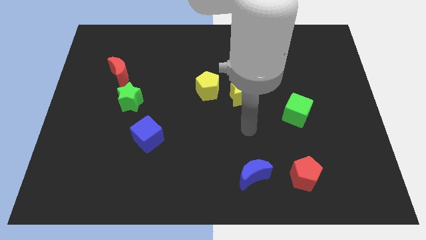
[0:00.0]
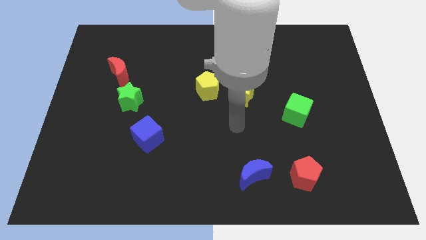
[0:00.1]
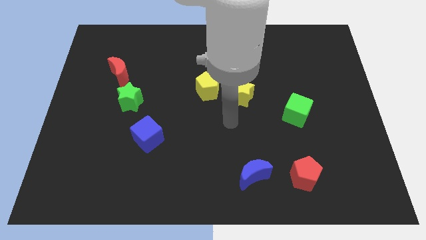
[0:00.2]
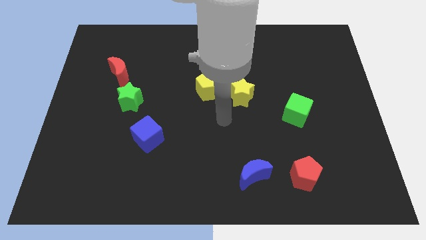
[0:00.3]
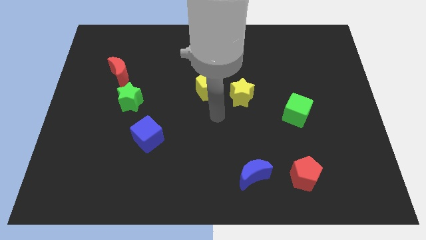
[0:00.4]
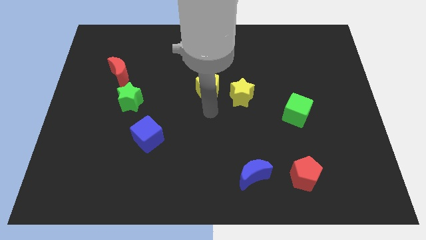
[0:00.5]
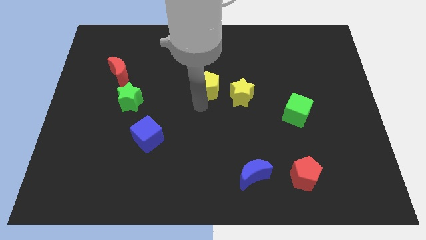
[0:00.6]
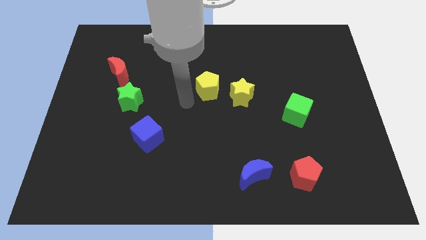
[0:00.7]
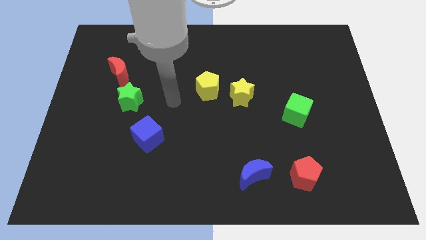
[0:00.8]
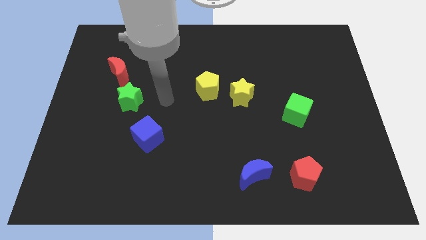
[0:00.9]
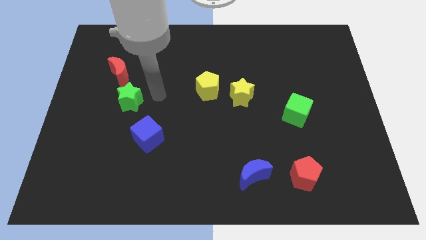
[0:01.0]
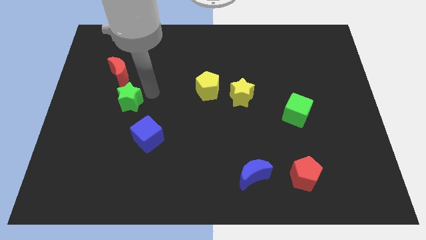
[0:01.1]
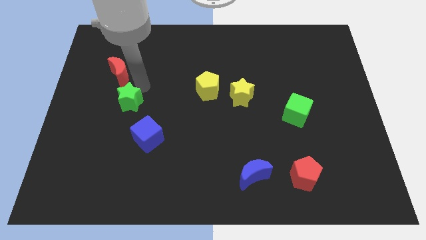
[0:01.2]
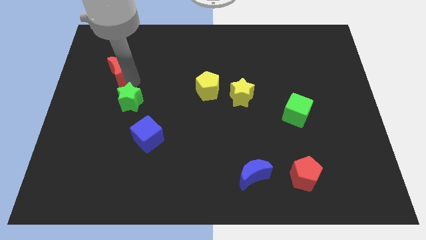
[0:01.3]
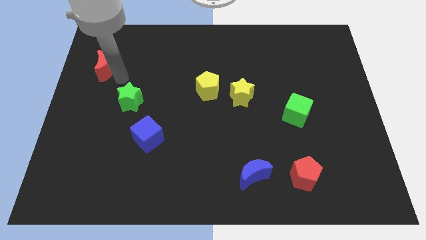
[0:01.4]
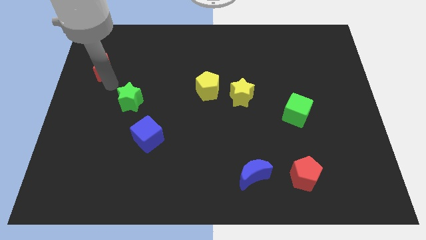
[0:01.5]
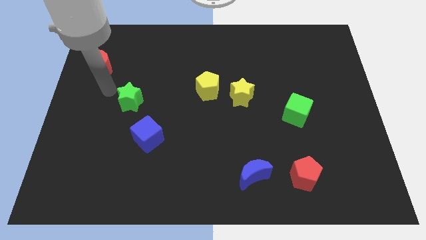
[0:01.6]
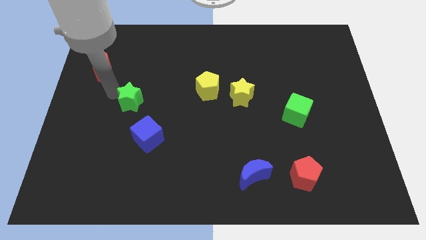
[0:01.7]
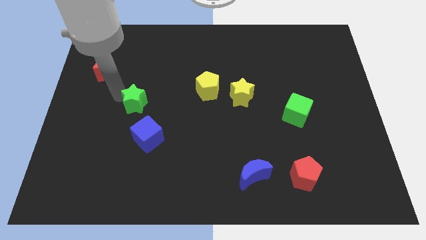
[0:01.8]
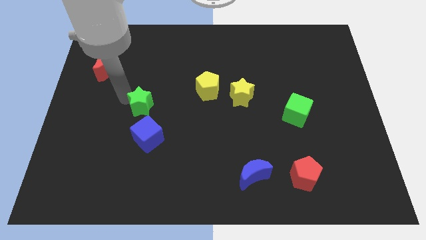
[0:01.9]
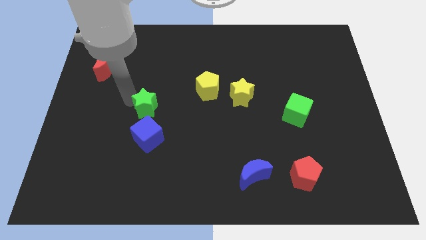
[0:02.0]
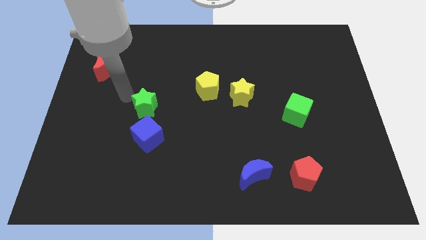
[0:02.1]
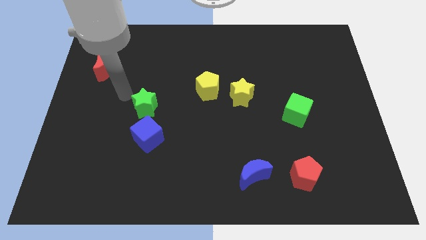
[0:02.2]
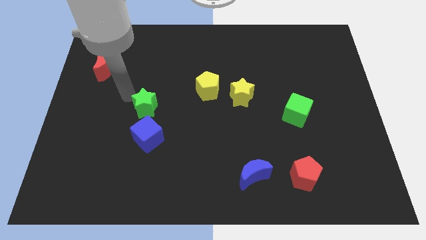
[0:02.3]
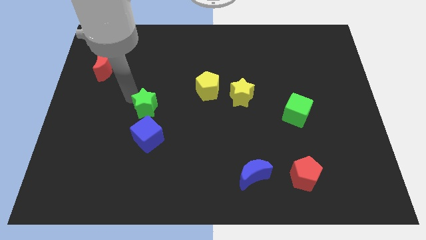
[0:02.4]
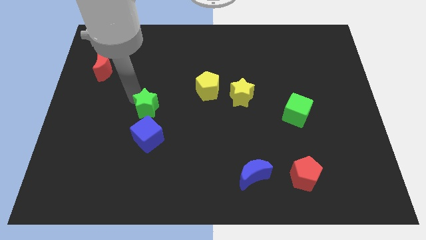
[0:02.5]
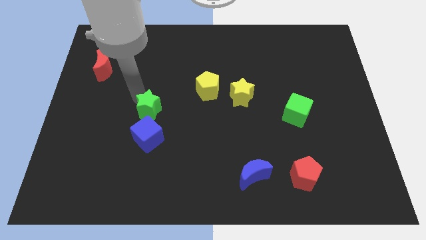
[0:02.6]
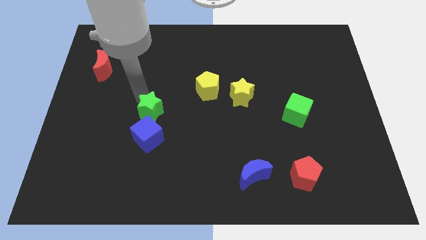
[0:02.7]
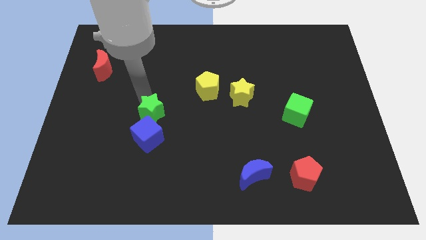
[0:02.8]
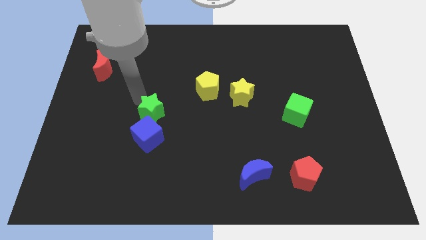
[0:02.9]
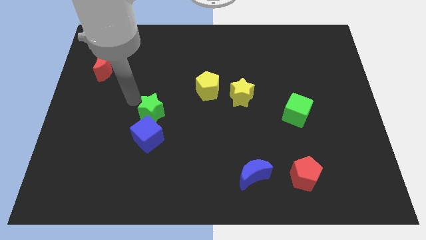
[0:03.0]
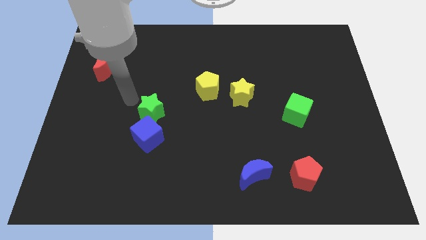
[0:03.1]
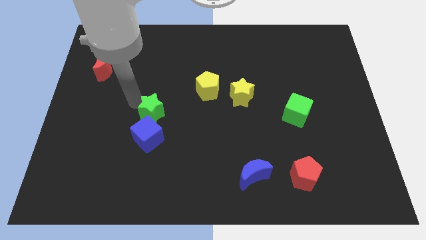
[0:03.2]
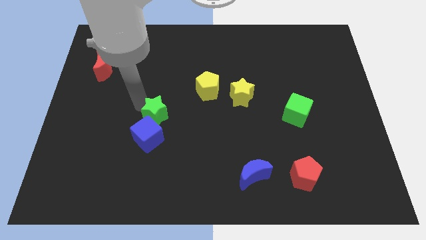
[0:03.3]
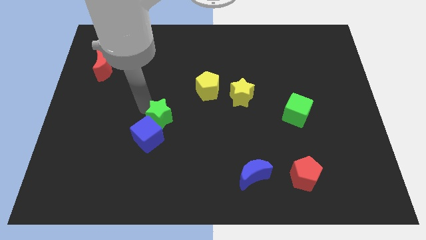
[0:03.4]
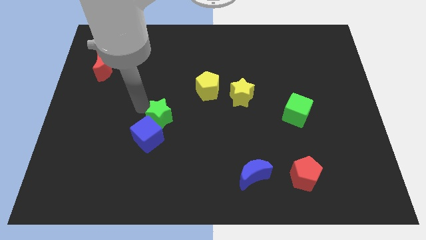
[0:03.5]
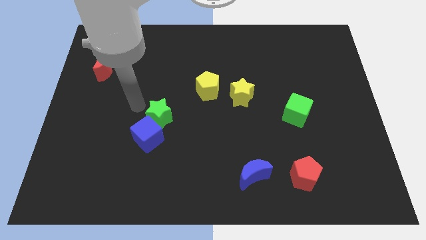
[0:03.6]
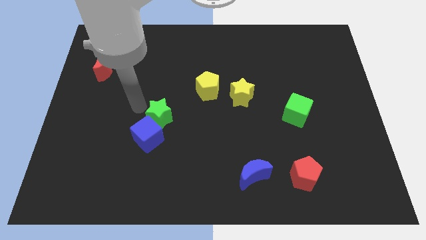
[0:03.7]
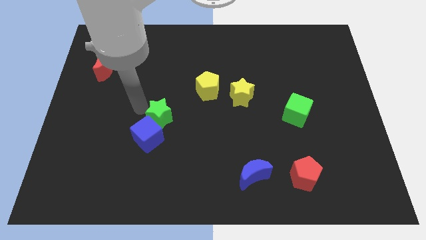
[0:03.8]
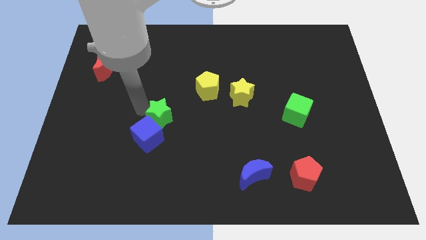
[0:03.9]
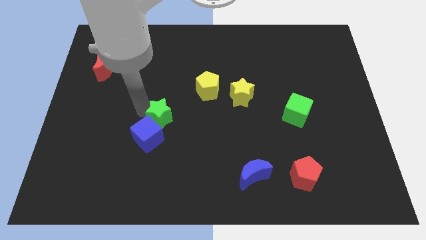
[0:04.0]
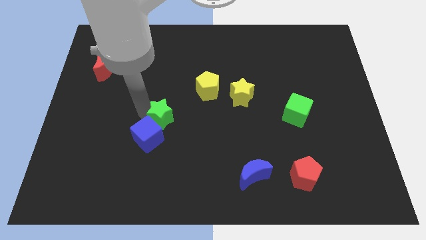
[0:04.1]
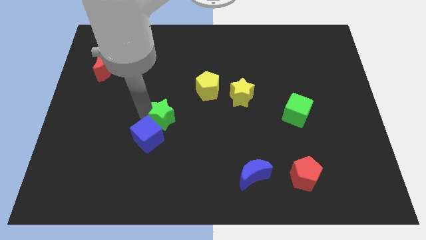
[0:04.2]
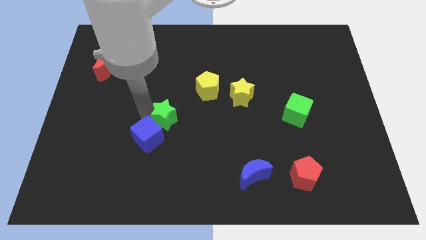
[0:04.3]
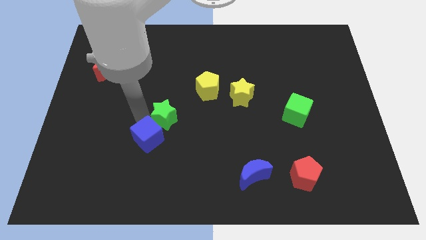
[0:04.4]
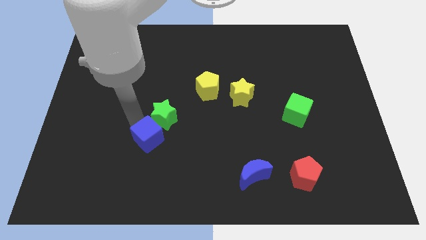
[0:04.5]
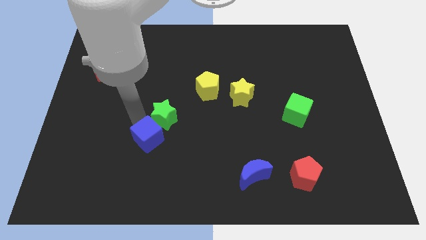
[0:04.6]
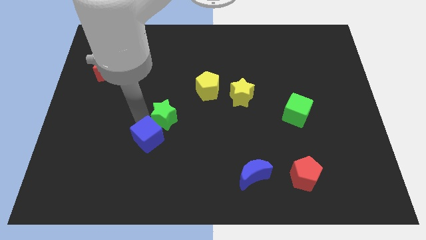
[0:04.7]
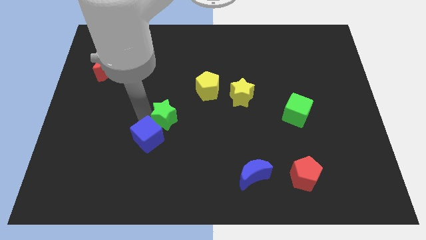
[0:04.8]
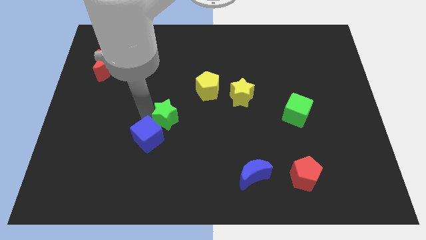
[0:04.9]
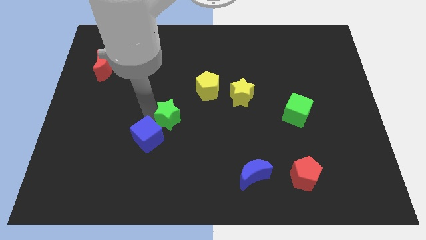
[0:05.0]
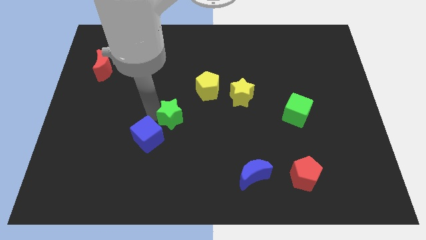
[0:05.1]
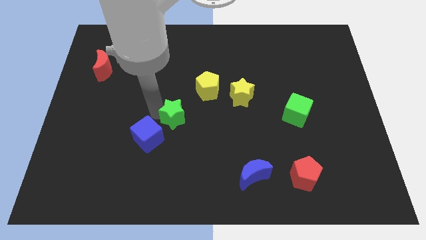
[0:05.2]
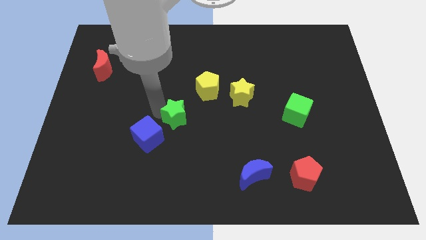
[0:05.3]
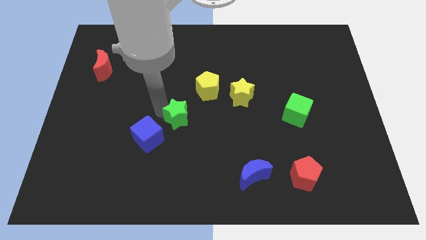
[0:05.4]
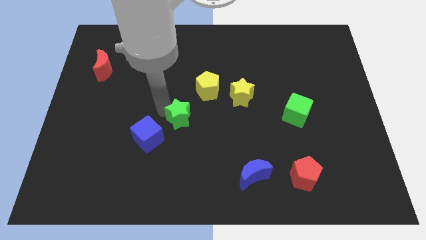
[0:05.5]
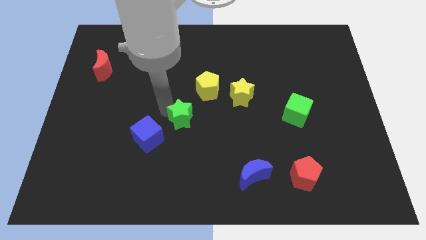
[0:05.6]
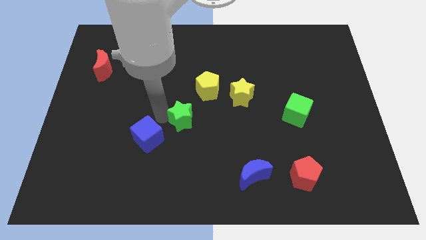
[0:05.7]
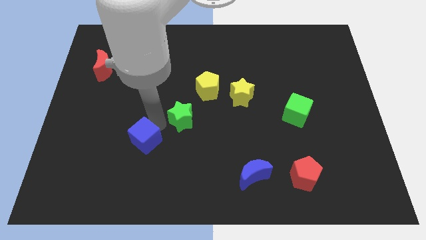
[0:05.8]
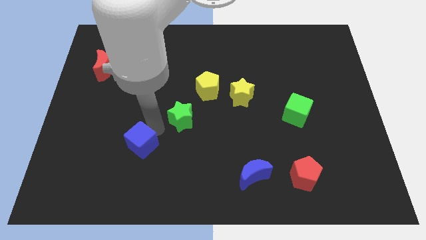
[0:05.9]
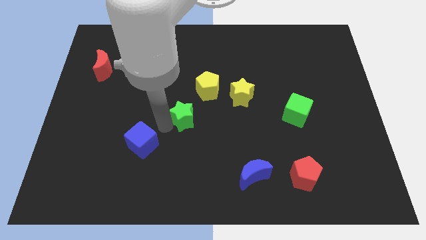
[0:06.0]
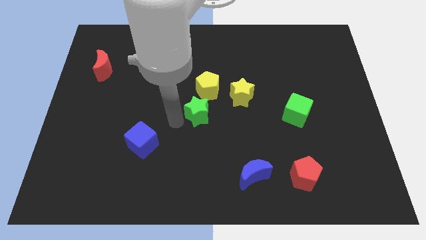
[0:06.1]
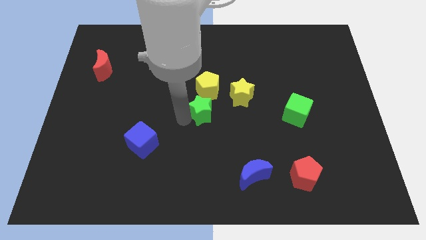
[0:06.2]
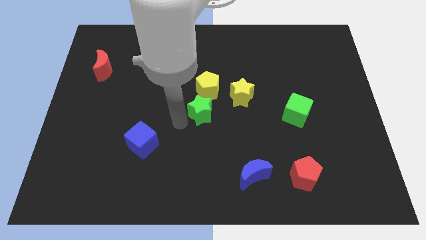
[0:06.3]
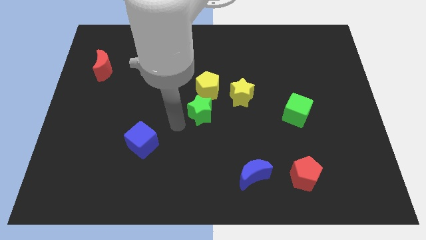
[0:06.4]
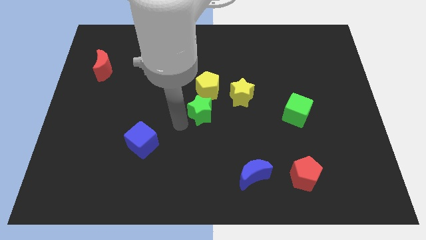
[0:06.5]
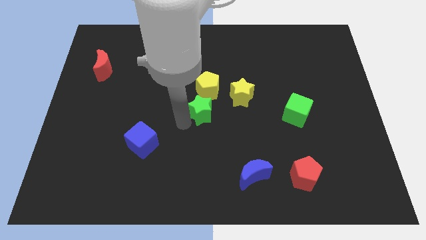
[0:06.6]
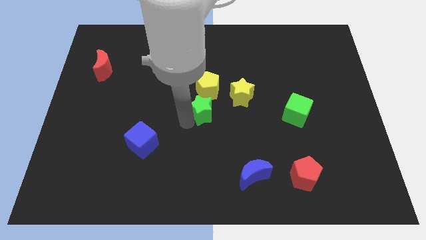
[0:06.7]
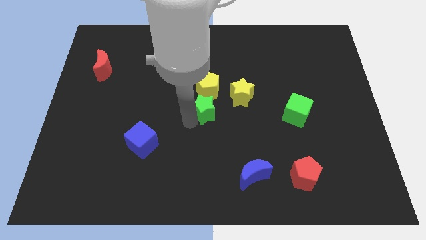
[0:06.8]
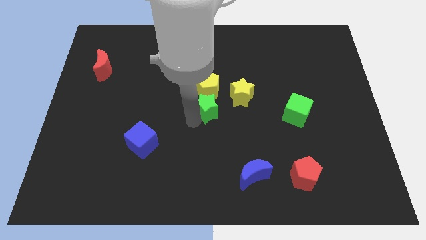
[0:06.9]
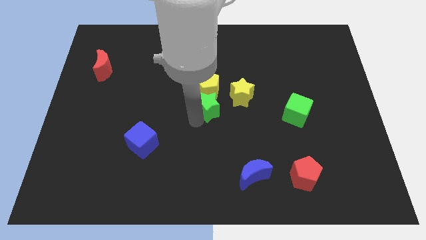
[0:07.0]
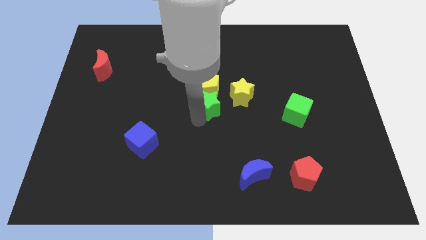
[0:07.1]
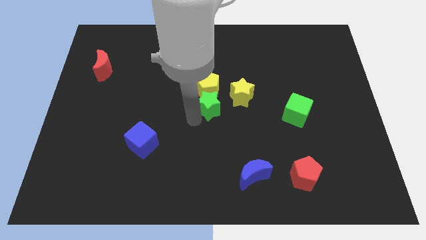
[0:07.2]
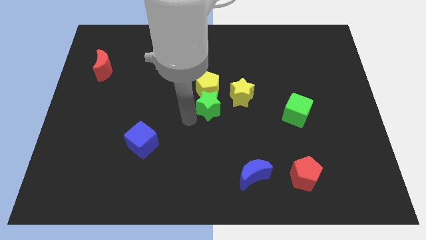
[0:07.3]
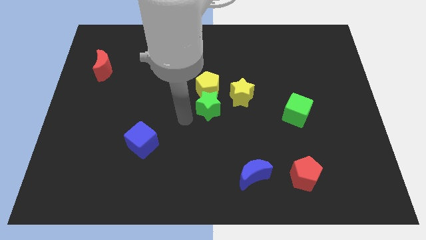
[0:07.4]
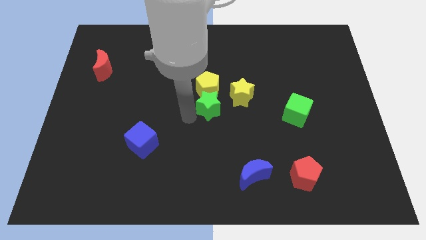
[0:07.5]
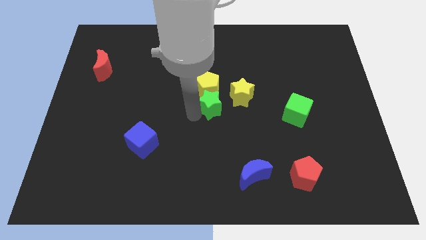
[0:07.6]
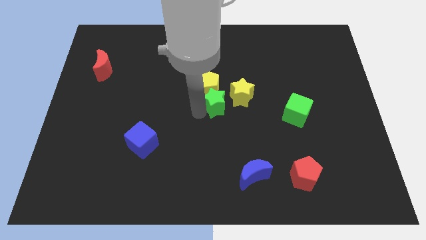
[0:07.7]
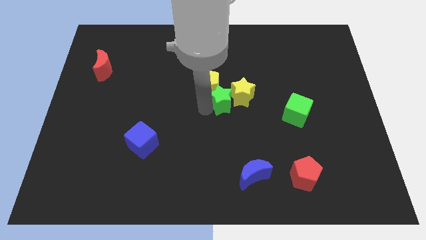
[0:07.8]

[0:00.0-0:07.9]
push the green star next to the yellow star
